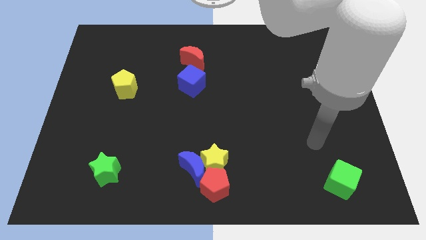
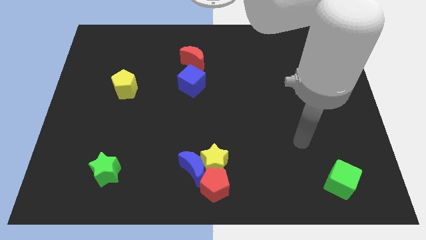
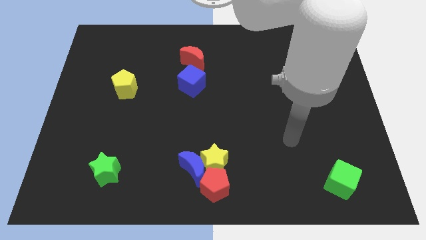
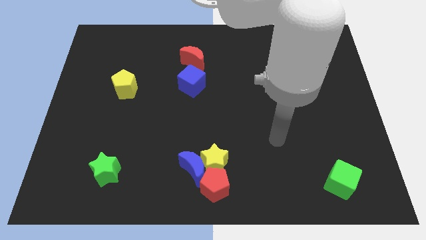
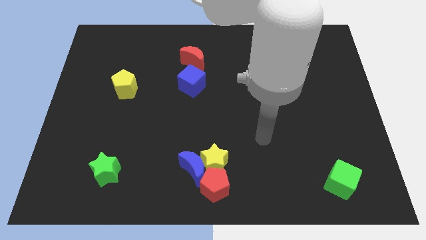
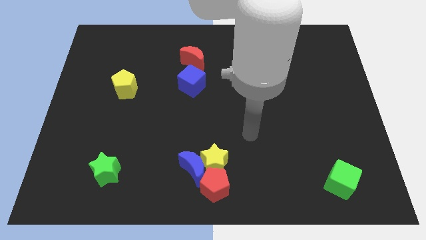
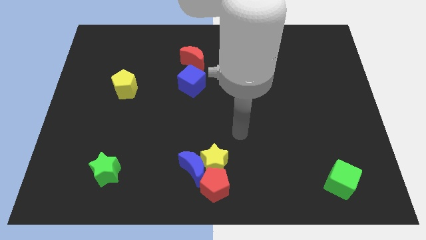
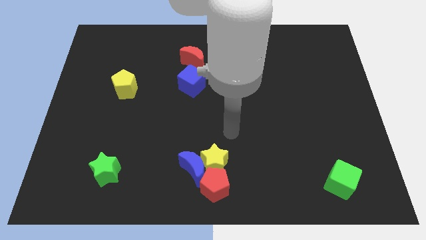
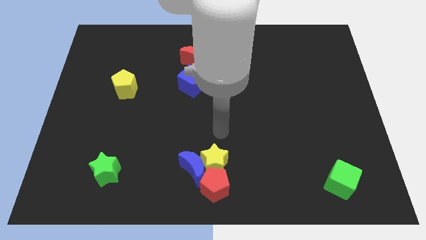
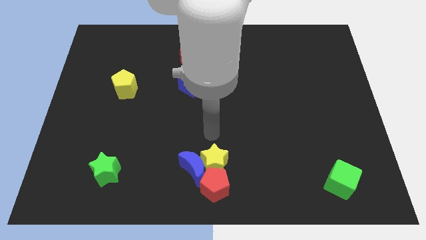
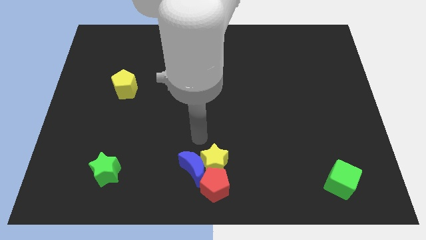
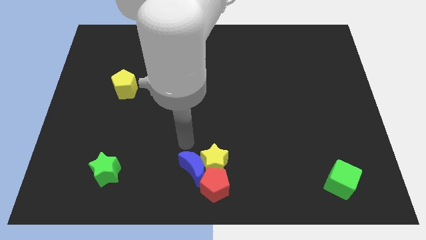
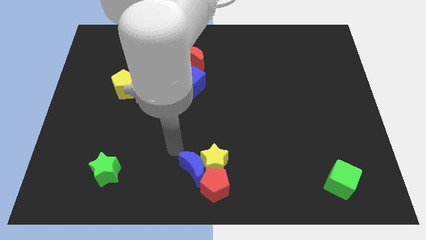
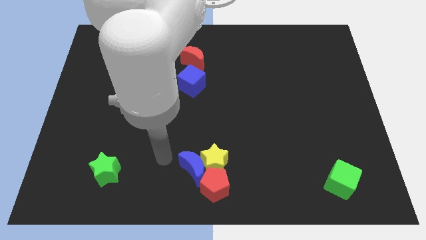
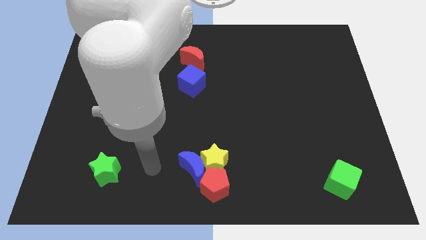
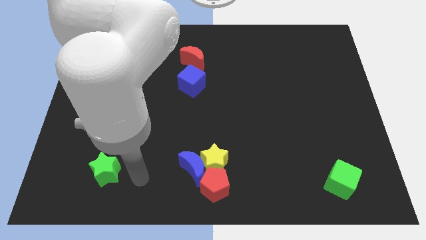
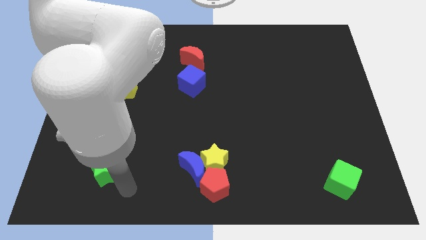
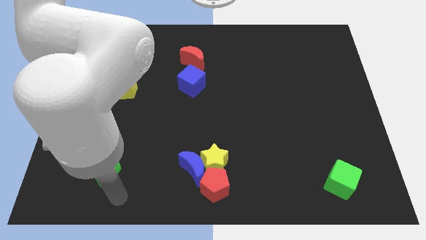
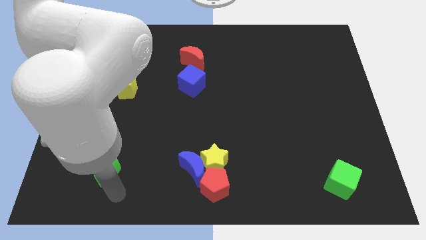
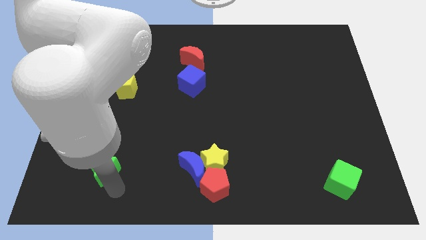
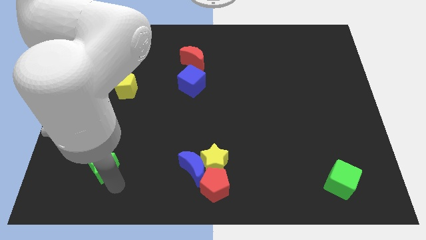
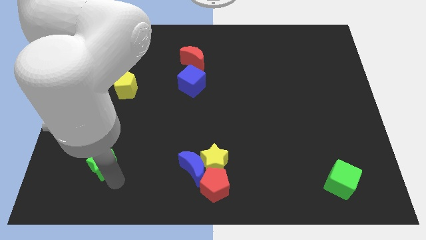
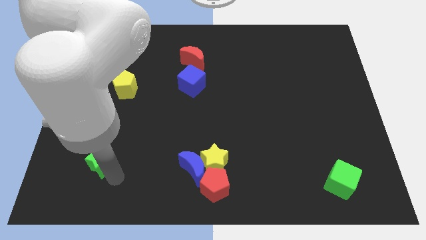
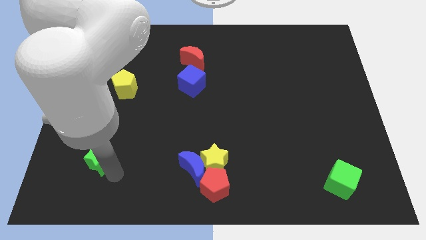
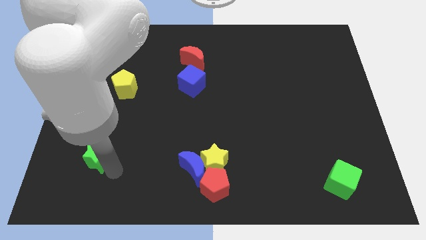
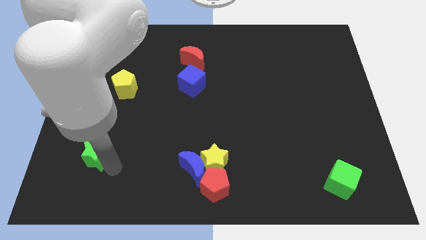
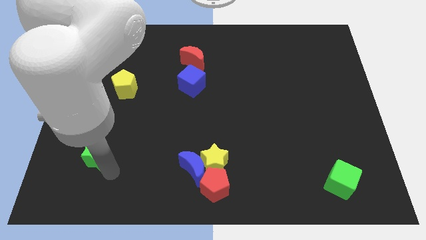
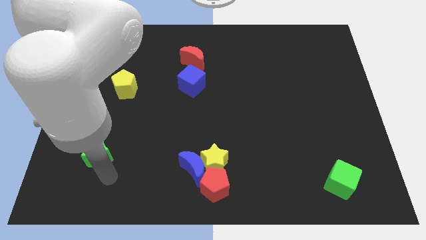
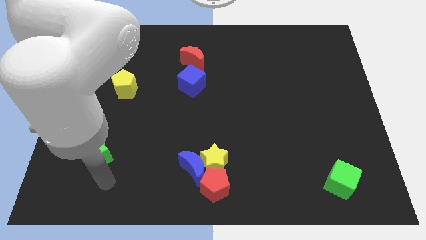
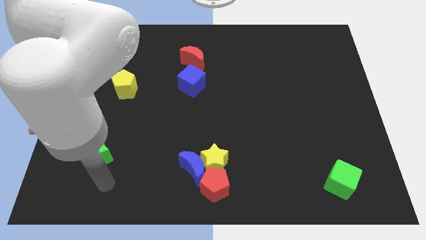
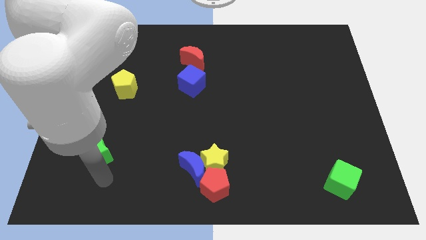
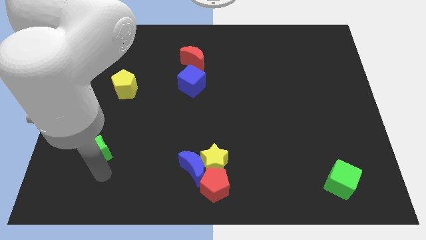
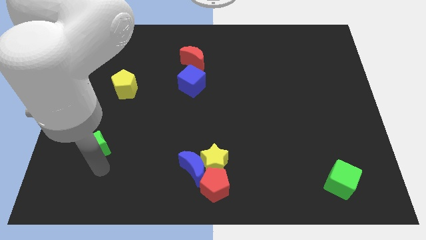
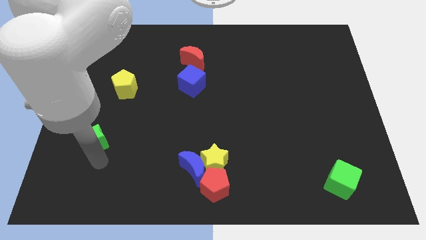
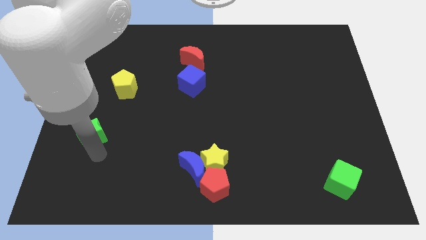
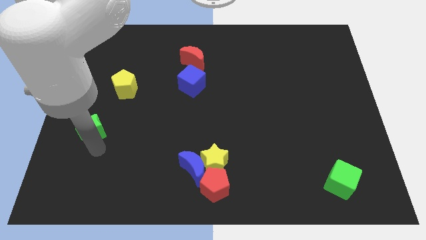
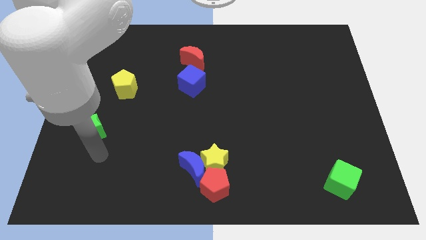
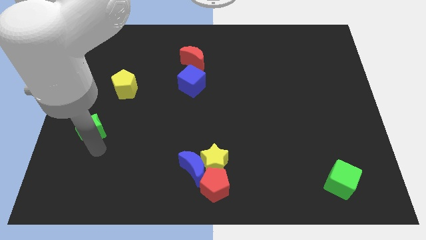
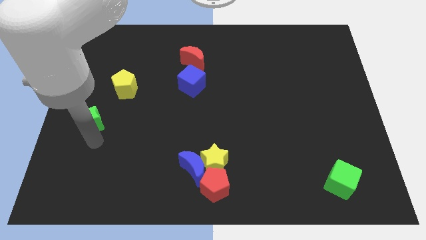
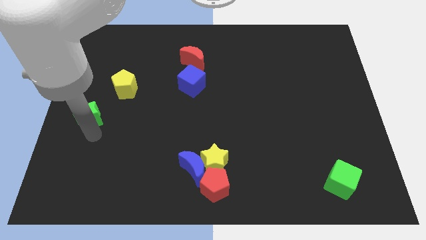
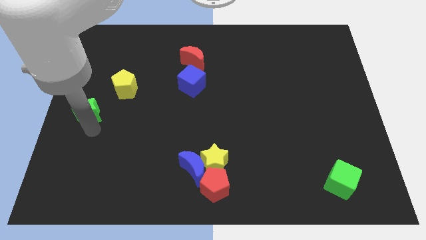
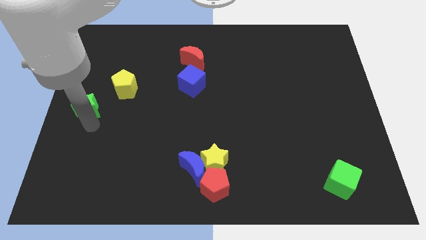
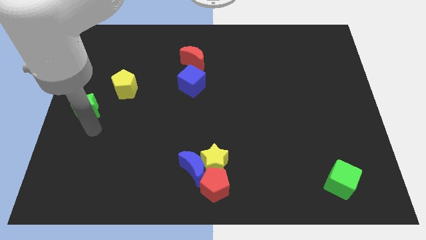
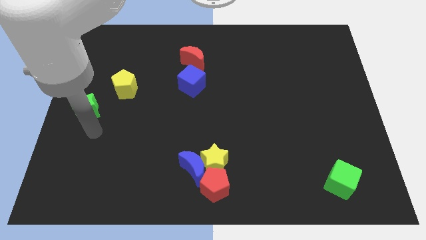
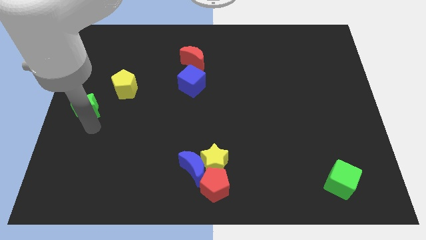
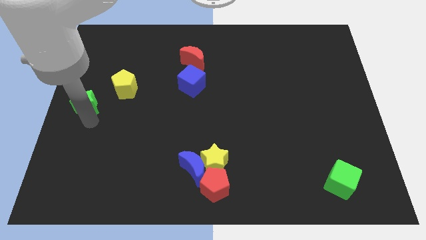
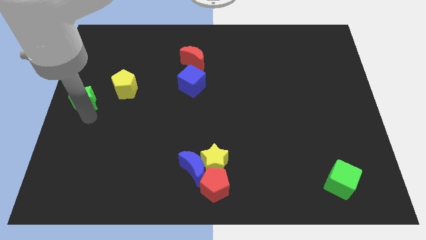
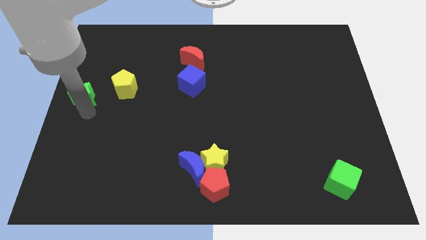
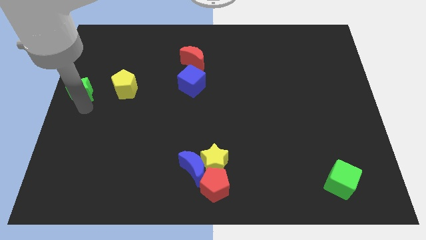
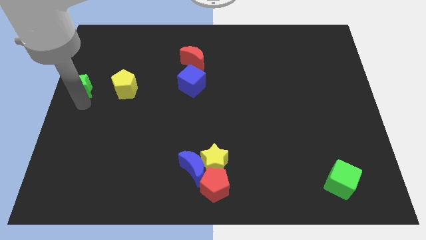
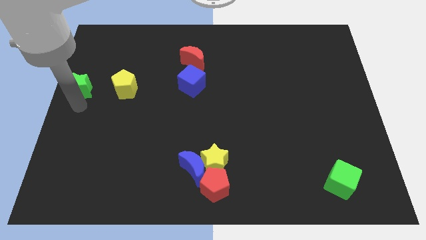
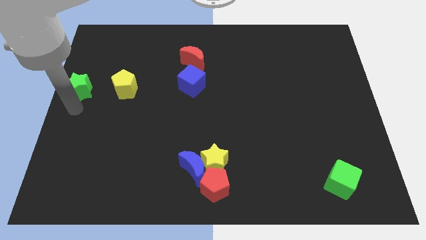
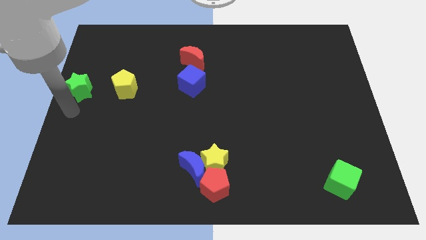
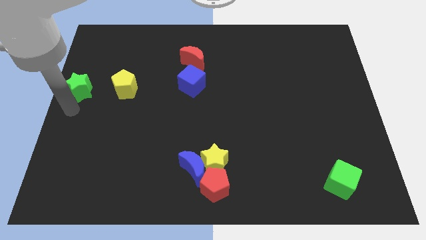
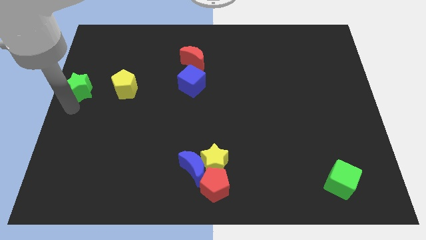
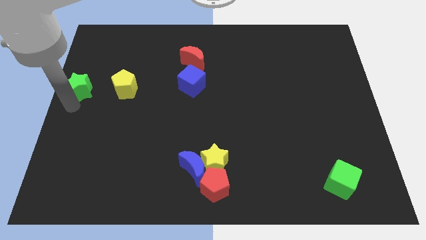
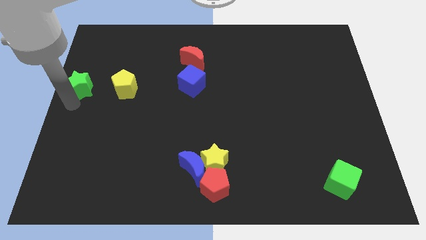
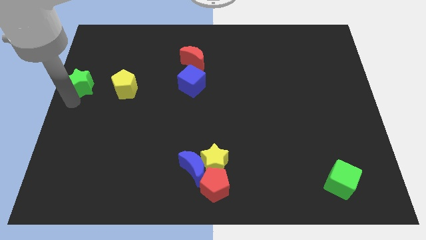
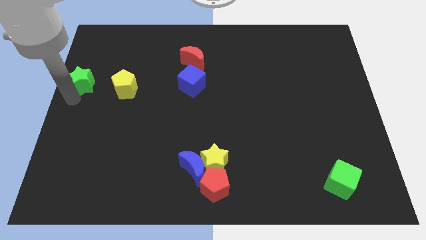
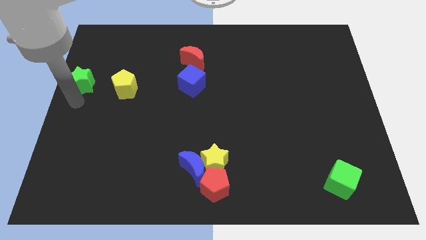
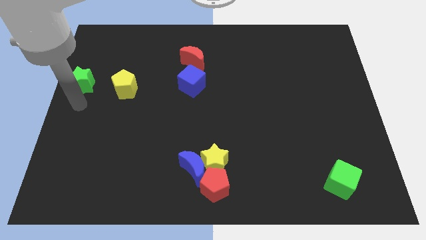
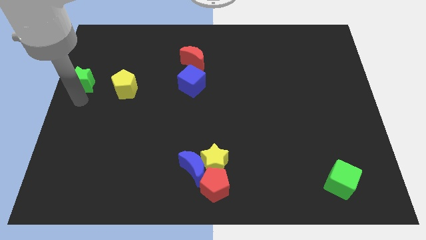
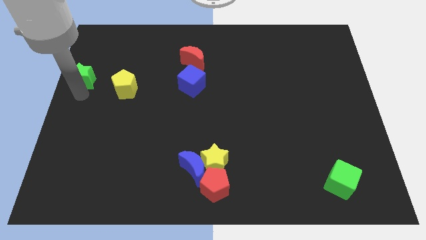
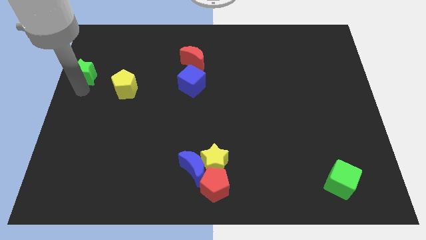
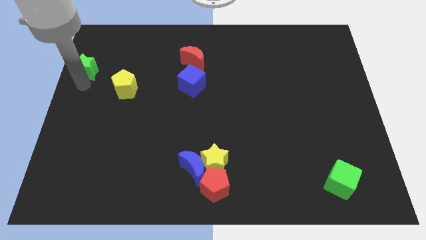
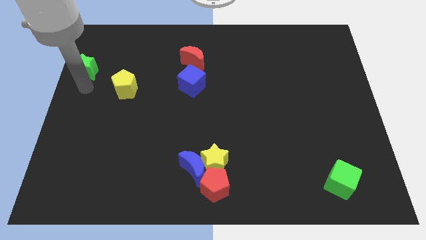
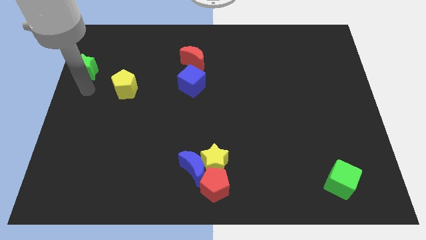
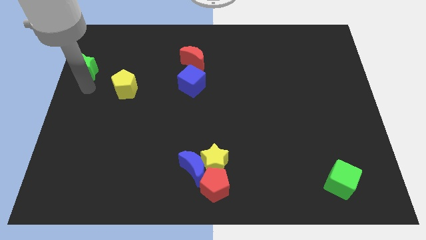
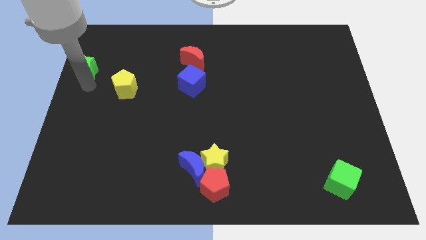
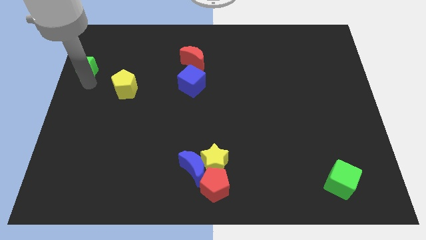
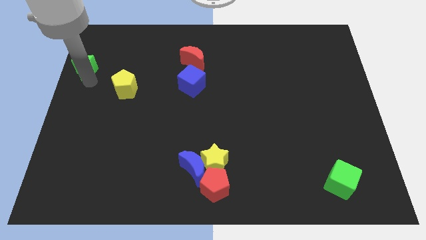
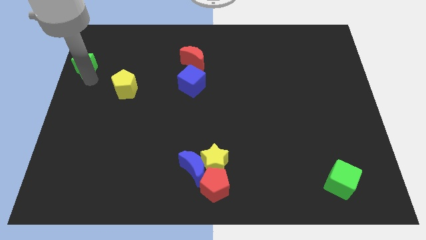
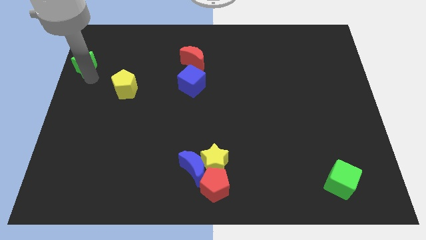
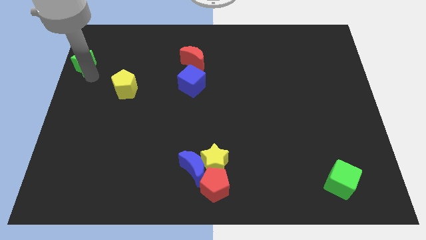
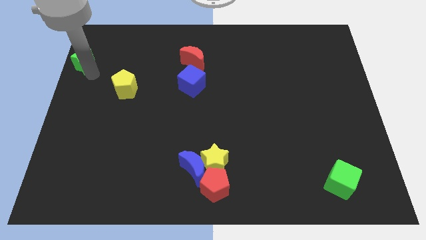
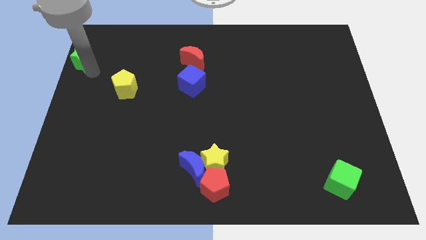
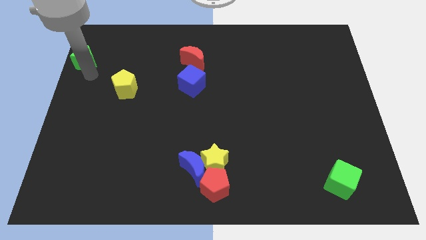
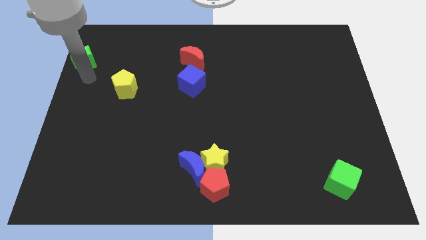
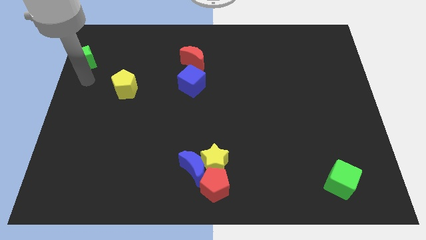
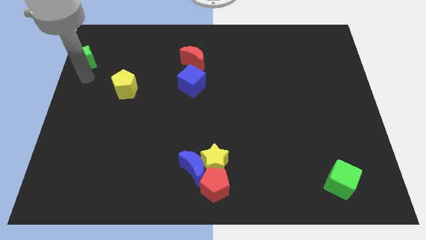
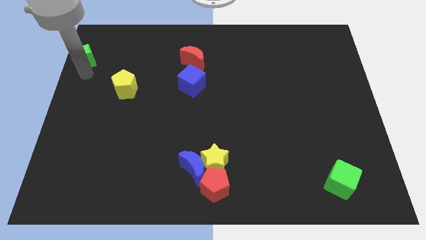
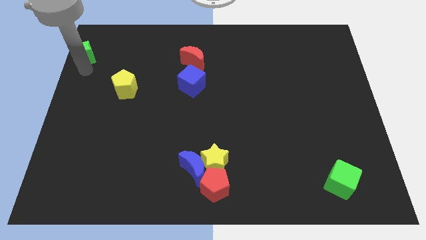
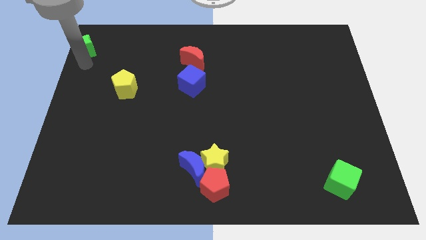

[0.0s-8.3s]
push the green star to the upper left corner
